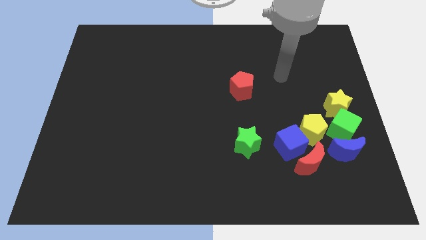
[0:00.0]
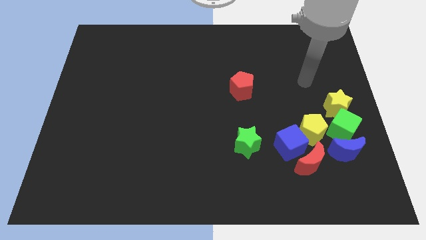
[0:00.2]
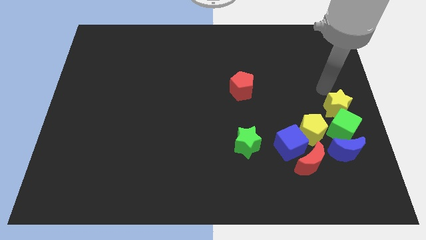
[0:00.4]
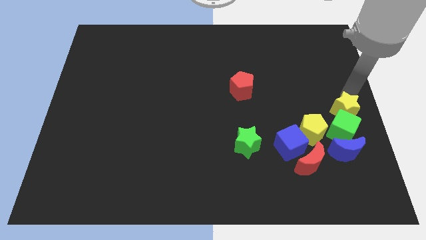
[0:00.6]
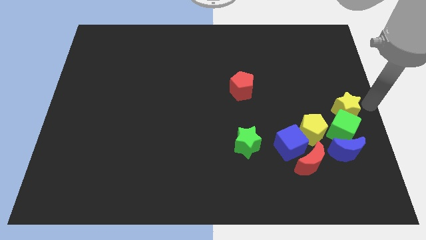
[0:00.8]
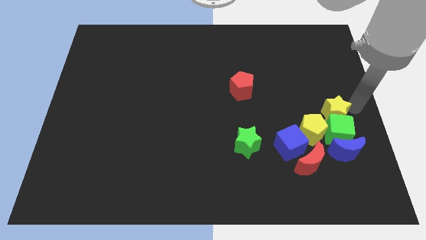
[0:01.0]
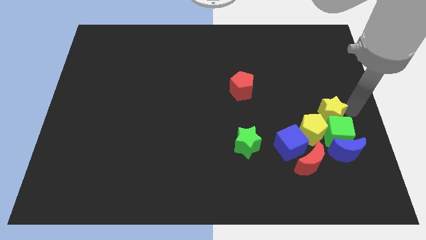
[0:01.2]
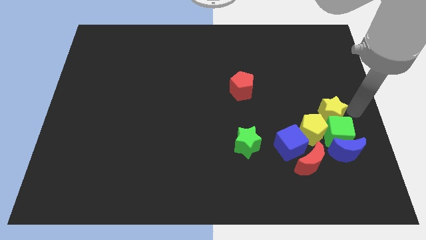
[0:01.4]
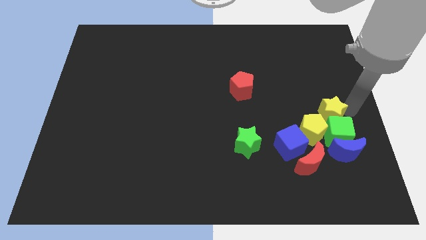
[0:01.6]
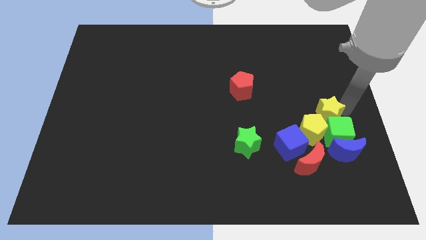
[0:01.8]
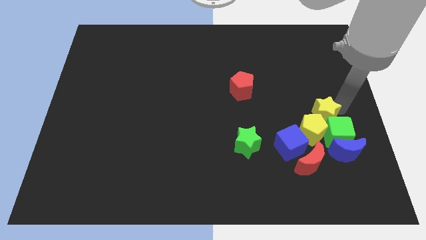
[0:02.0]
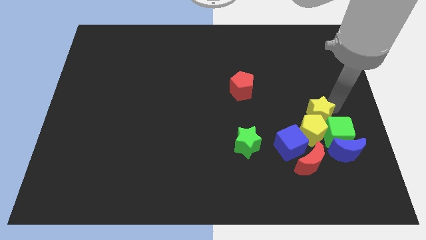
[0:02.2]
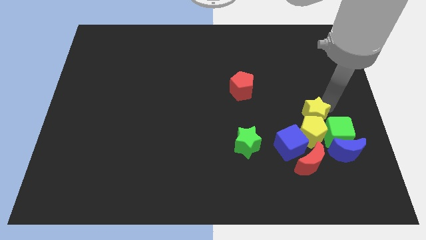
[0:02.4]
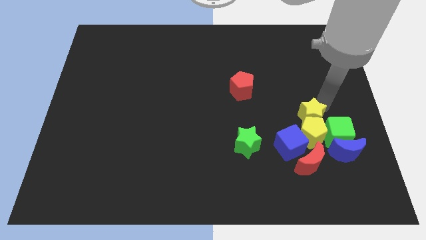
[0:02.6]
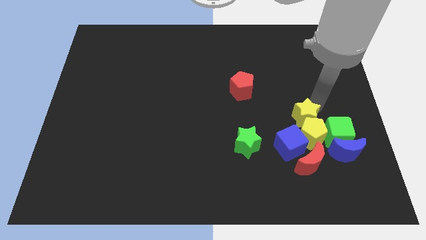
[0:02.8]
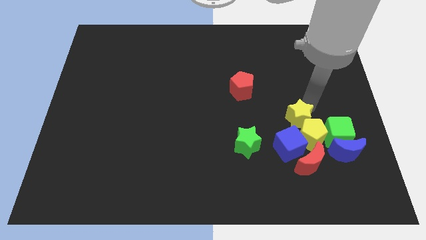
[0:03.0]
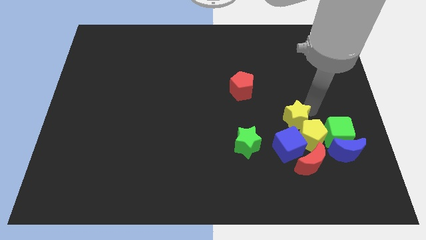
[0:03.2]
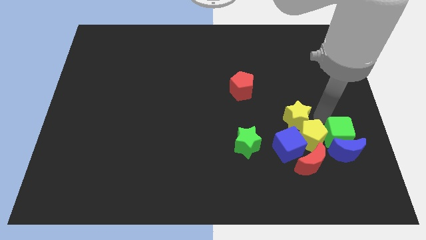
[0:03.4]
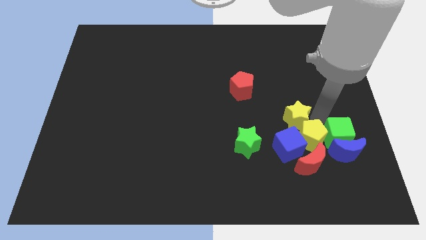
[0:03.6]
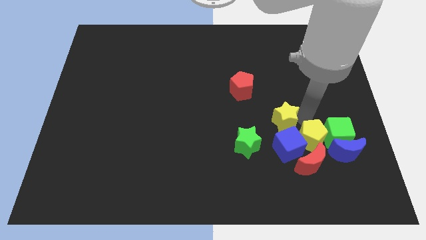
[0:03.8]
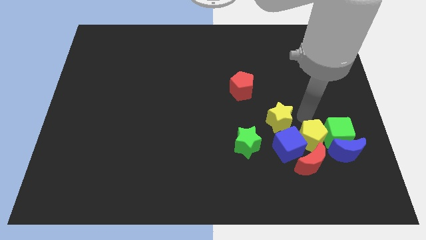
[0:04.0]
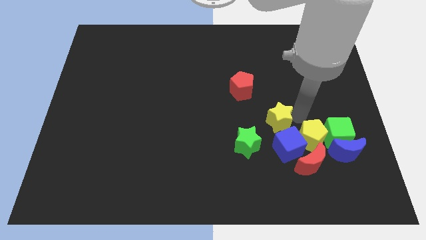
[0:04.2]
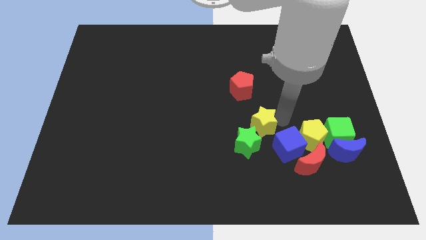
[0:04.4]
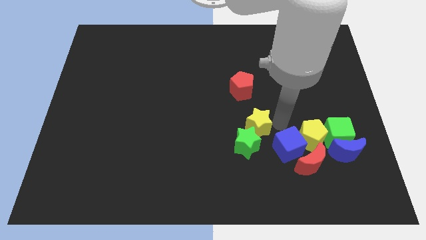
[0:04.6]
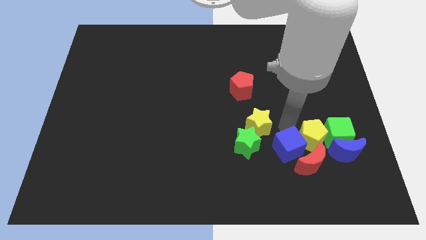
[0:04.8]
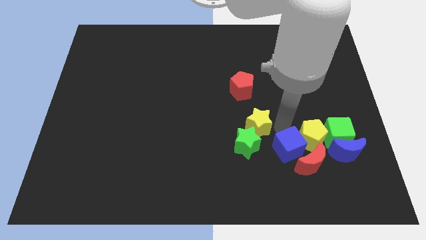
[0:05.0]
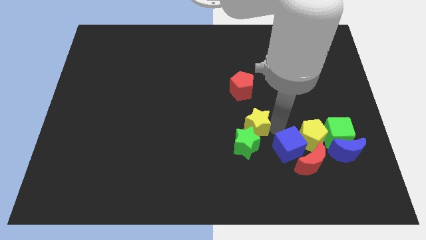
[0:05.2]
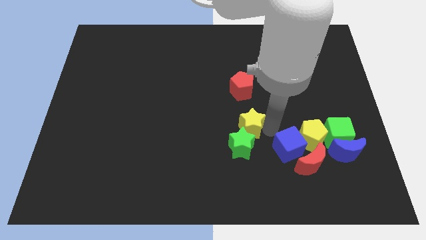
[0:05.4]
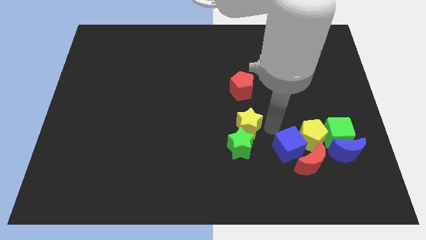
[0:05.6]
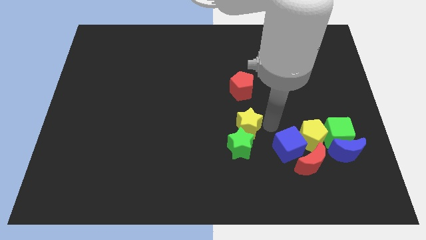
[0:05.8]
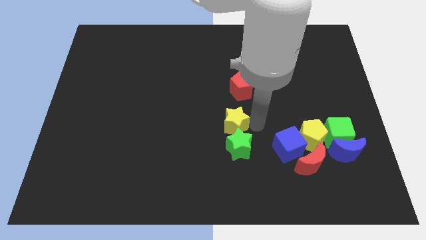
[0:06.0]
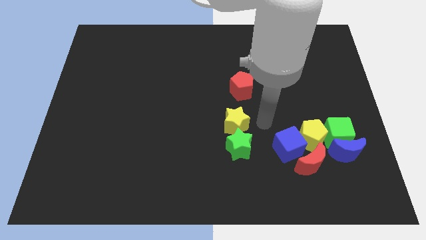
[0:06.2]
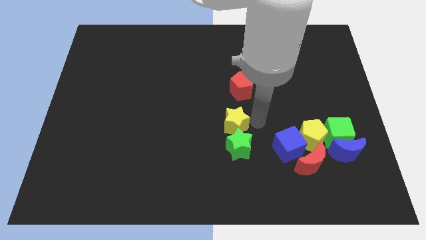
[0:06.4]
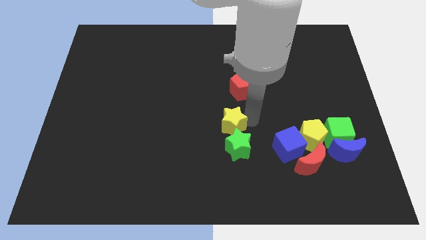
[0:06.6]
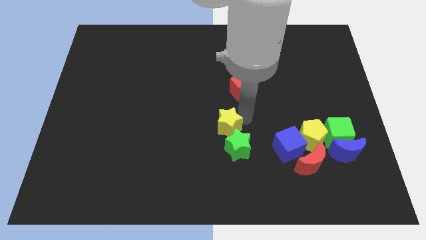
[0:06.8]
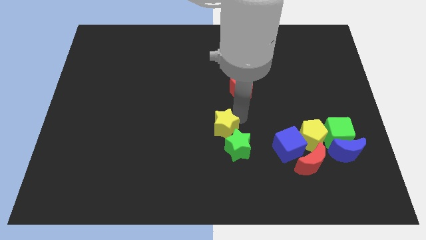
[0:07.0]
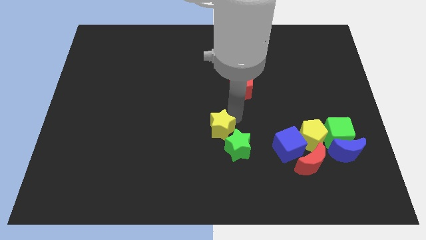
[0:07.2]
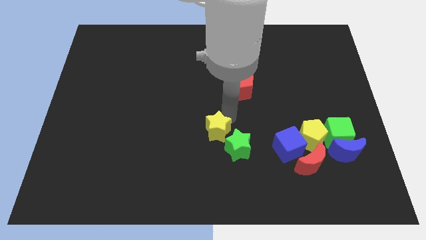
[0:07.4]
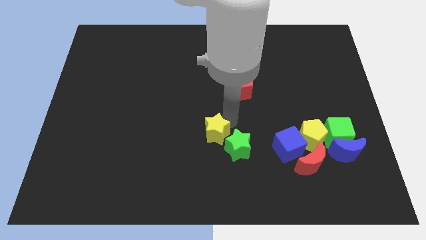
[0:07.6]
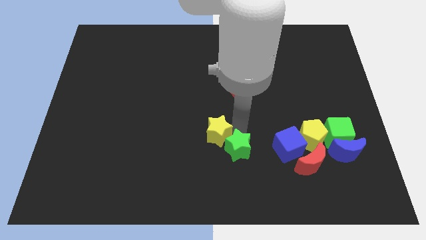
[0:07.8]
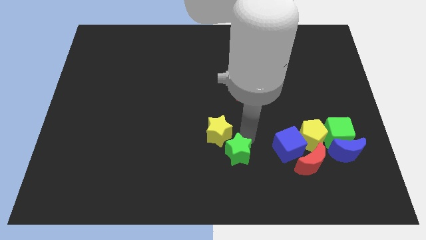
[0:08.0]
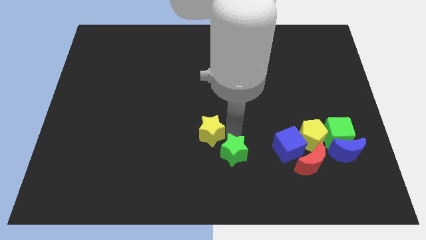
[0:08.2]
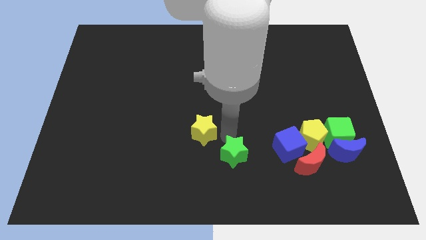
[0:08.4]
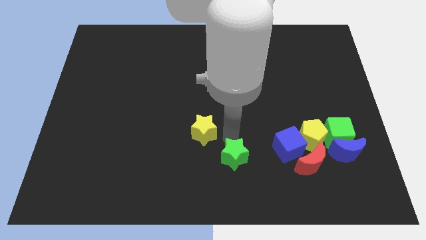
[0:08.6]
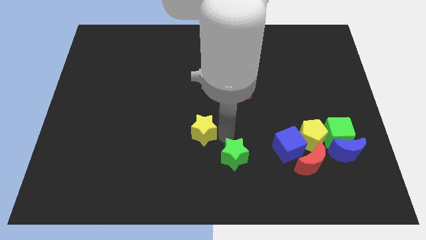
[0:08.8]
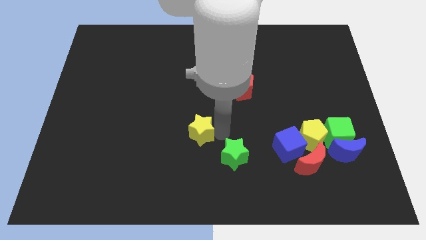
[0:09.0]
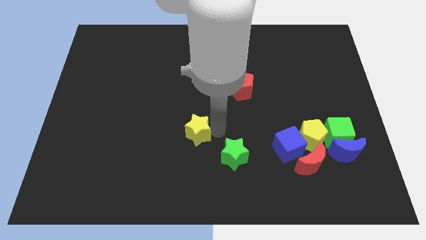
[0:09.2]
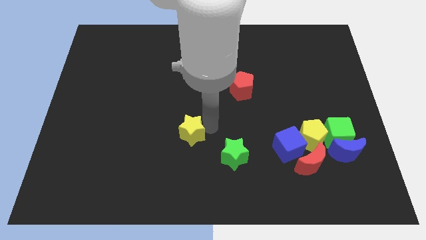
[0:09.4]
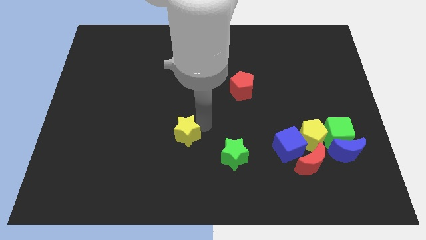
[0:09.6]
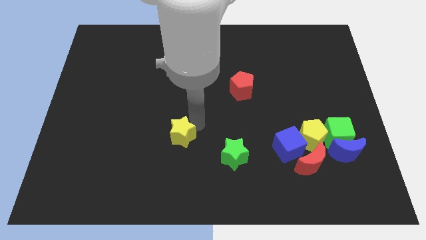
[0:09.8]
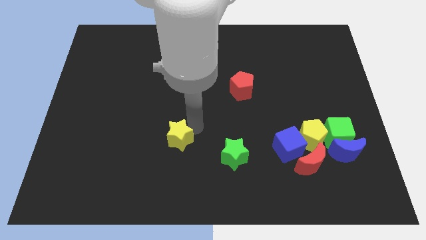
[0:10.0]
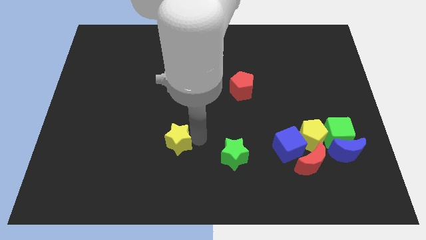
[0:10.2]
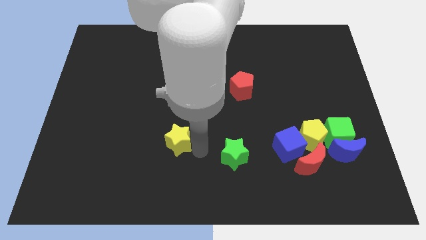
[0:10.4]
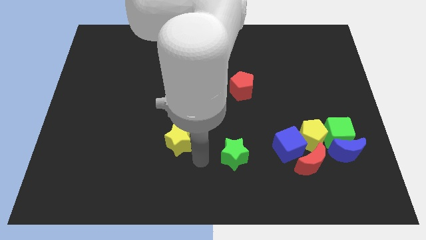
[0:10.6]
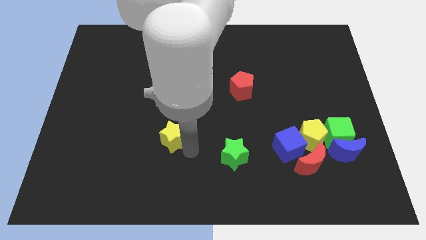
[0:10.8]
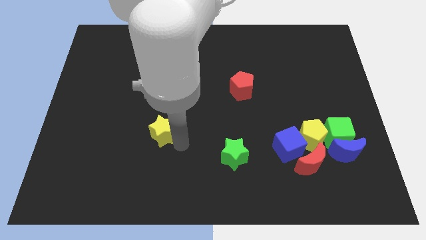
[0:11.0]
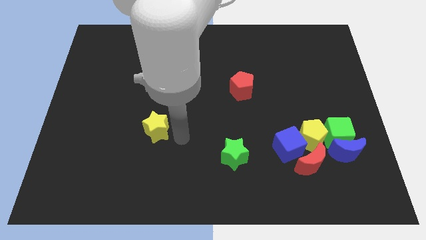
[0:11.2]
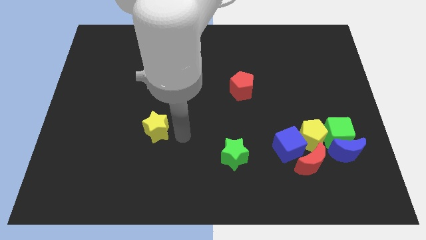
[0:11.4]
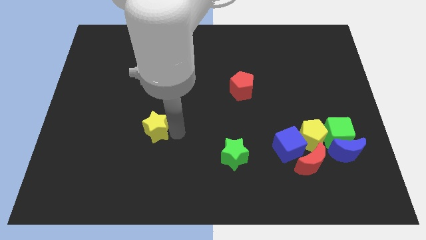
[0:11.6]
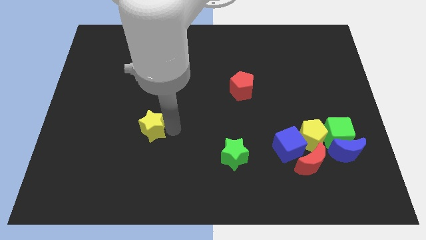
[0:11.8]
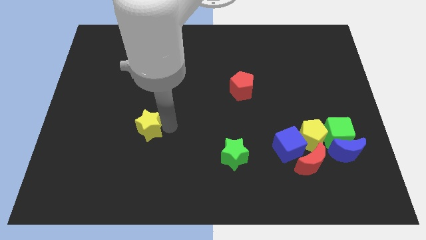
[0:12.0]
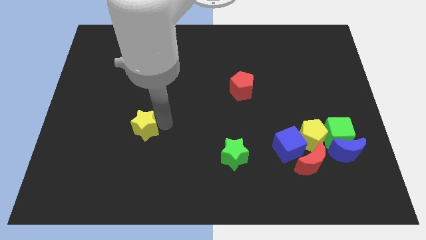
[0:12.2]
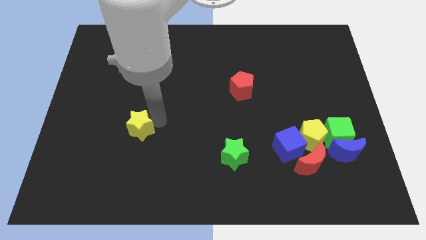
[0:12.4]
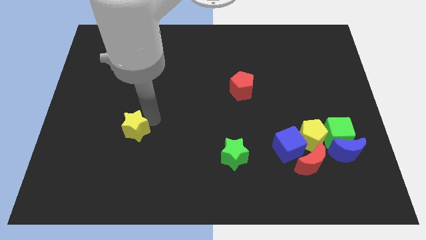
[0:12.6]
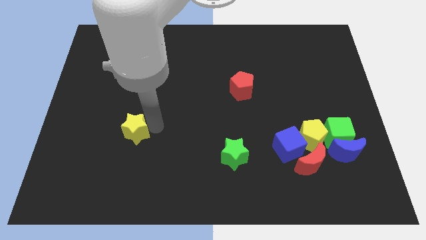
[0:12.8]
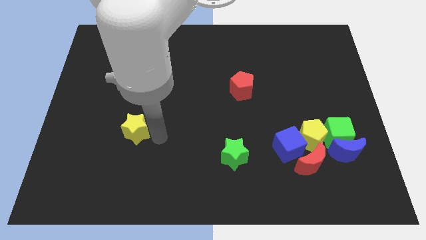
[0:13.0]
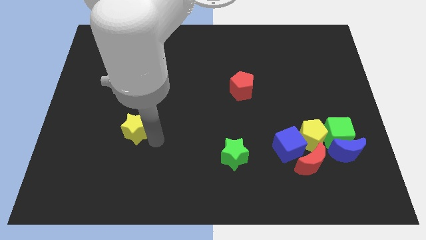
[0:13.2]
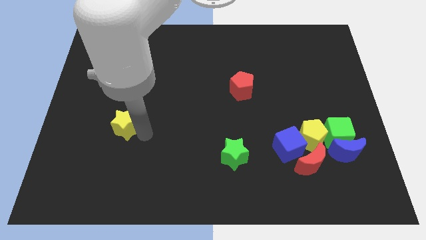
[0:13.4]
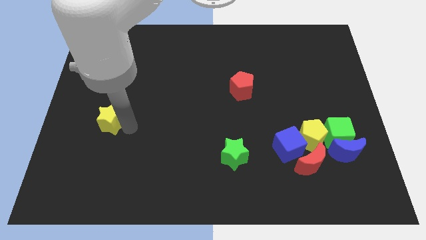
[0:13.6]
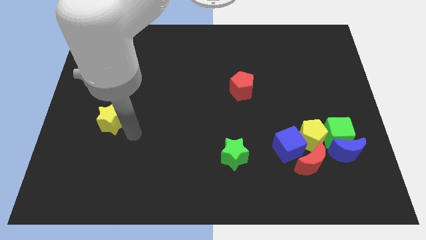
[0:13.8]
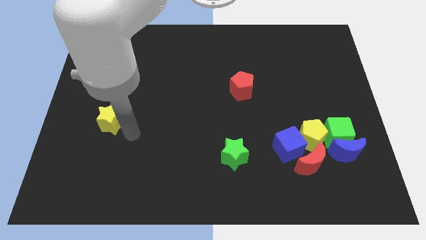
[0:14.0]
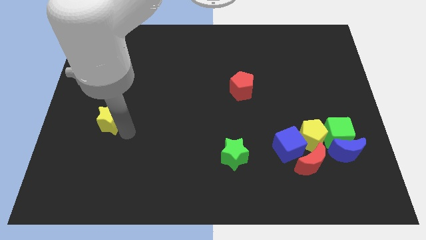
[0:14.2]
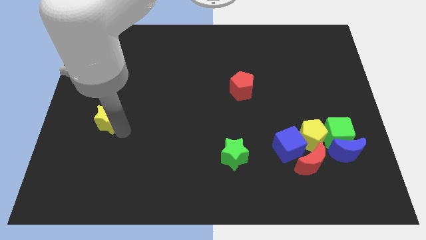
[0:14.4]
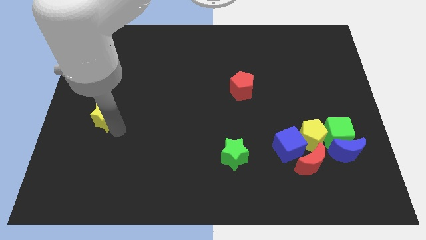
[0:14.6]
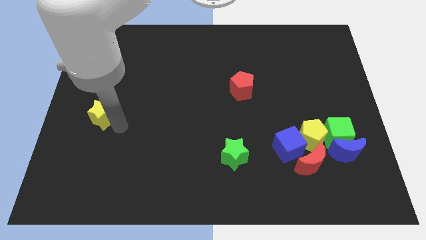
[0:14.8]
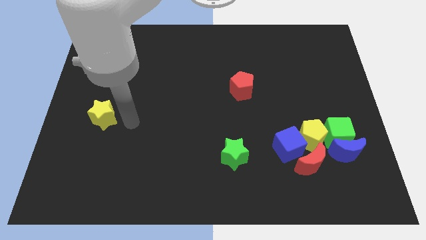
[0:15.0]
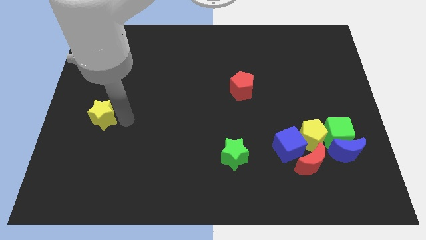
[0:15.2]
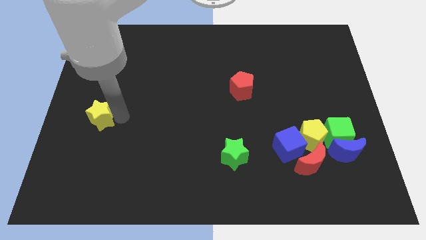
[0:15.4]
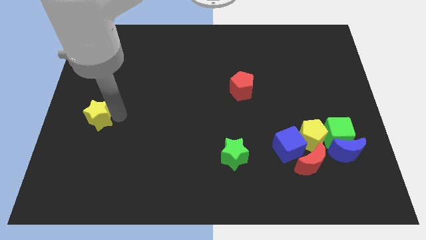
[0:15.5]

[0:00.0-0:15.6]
put the yellow star to the left side
